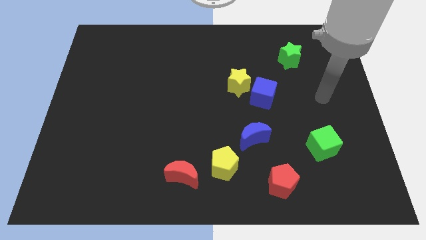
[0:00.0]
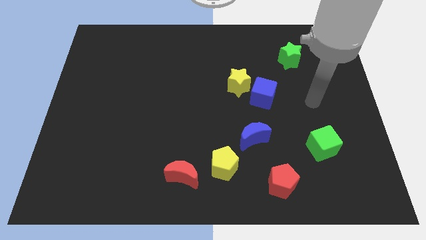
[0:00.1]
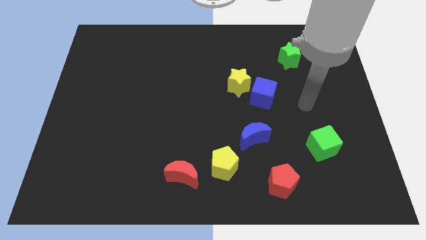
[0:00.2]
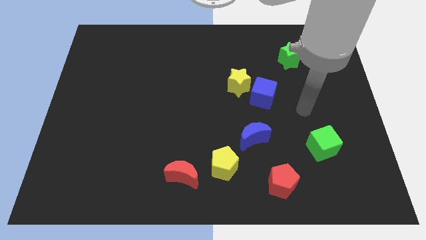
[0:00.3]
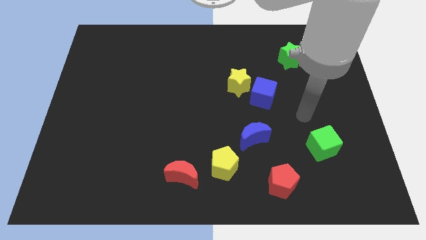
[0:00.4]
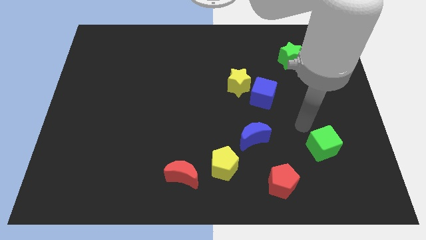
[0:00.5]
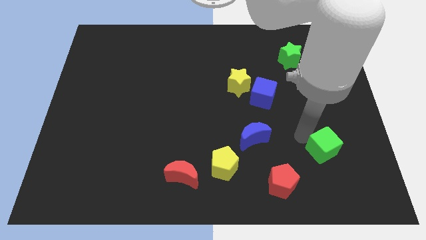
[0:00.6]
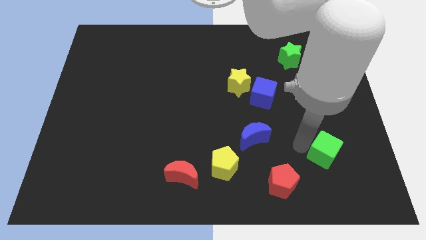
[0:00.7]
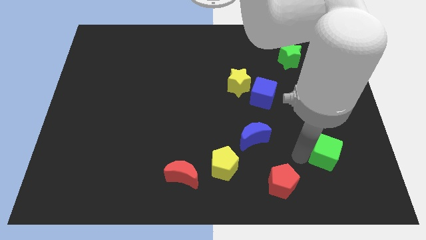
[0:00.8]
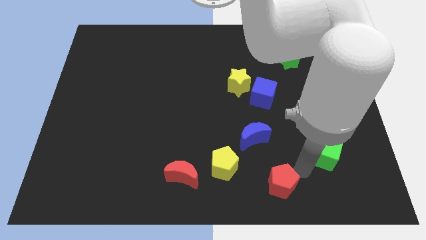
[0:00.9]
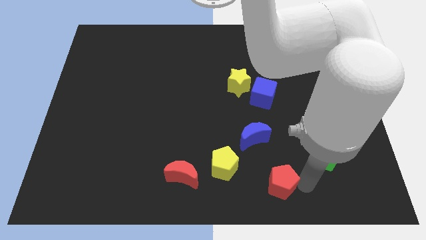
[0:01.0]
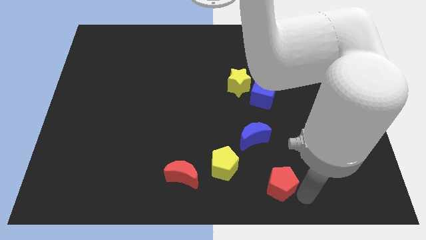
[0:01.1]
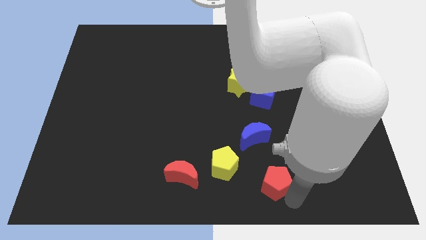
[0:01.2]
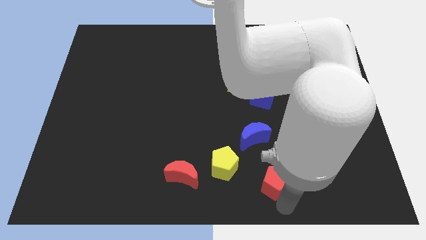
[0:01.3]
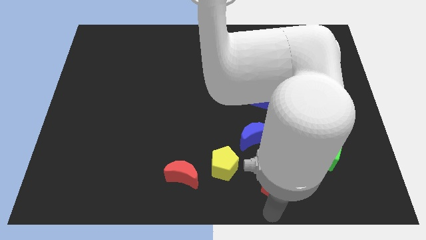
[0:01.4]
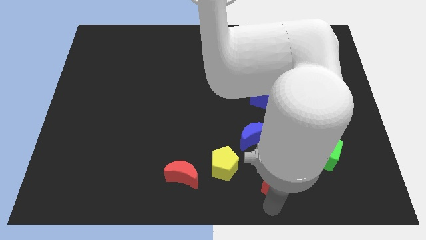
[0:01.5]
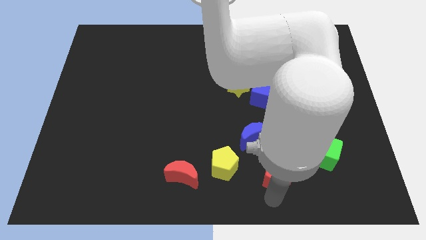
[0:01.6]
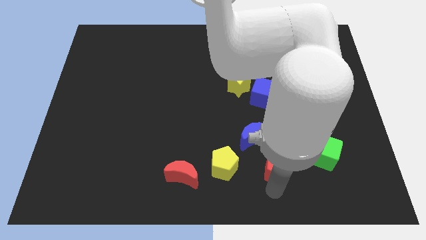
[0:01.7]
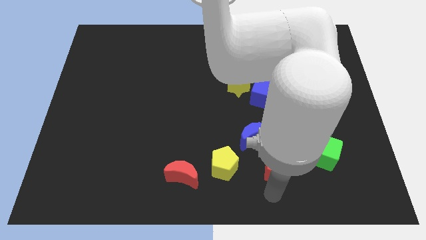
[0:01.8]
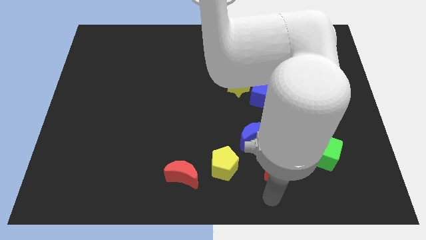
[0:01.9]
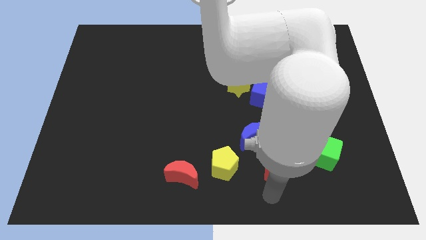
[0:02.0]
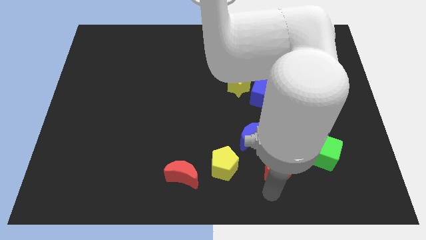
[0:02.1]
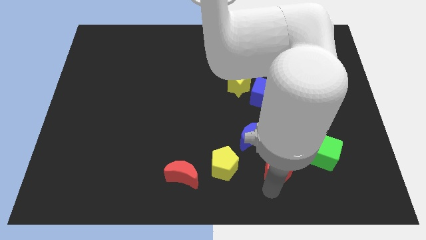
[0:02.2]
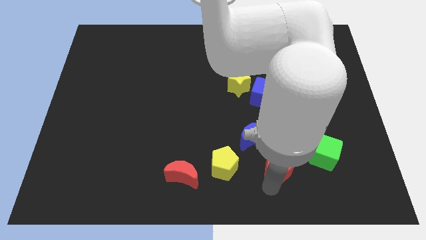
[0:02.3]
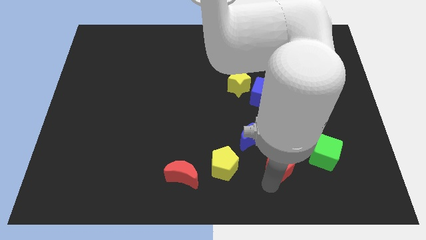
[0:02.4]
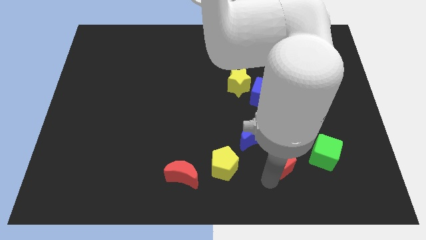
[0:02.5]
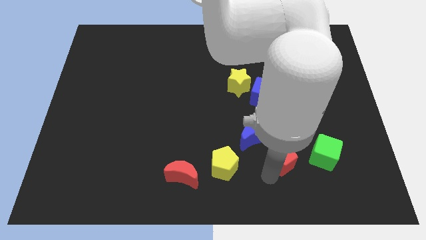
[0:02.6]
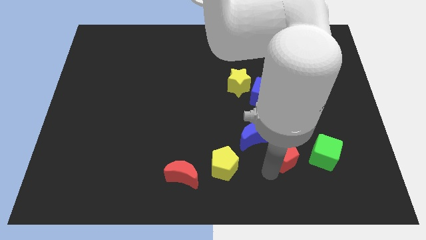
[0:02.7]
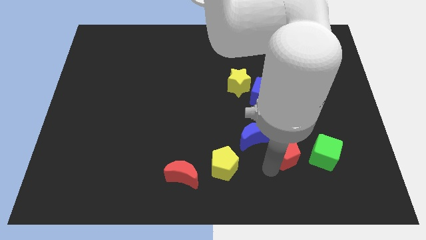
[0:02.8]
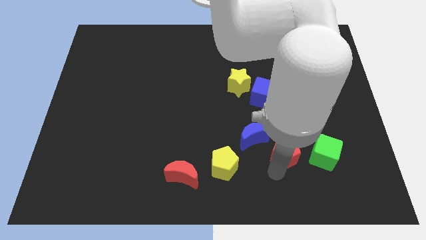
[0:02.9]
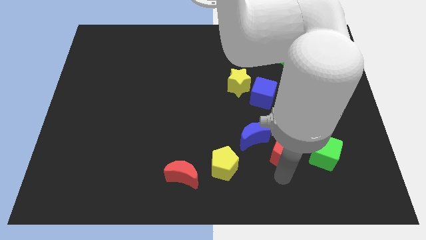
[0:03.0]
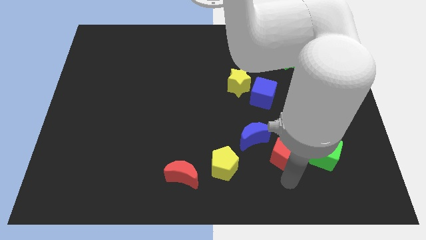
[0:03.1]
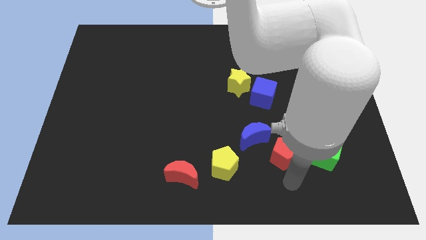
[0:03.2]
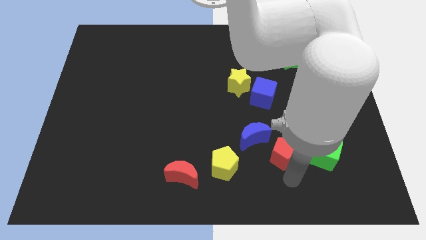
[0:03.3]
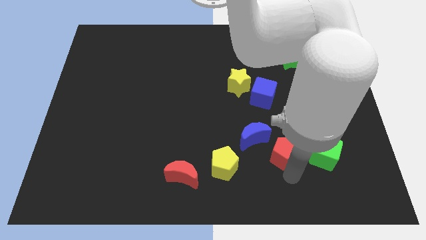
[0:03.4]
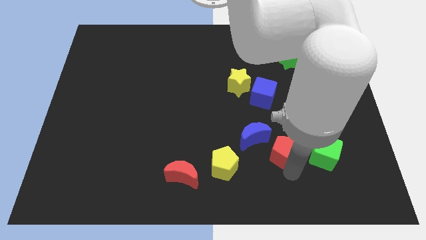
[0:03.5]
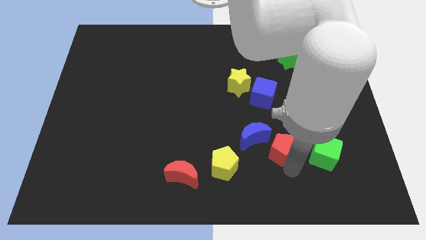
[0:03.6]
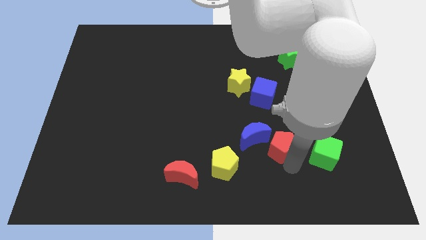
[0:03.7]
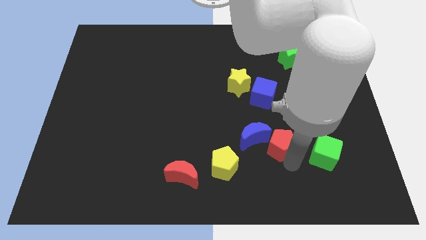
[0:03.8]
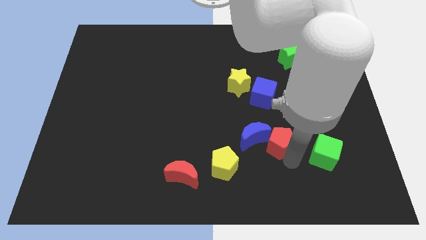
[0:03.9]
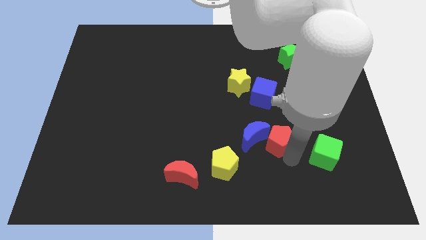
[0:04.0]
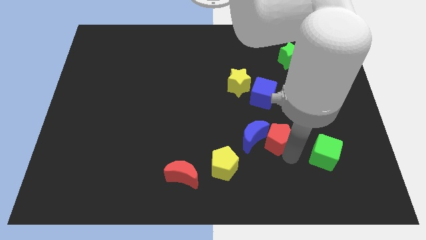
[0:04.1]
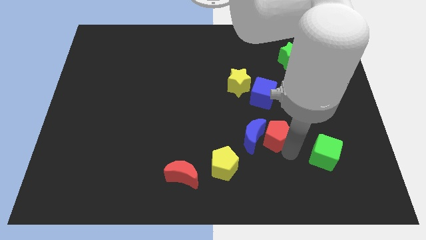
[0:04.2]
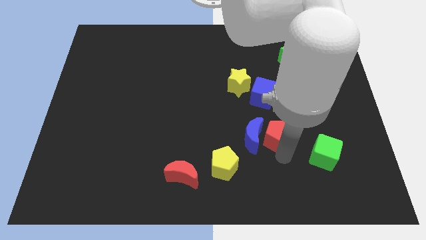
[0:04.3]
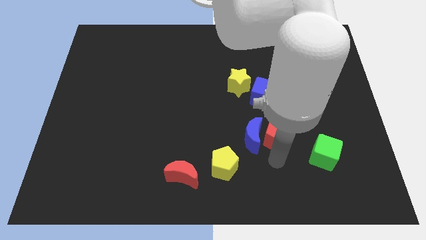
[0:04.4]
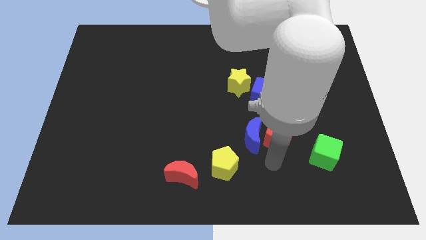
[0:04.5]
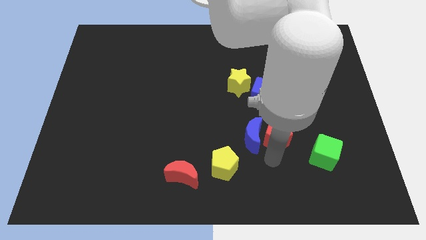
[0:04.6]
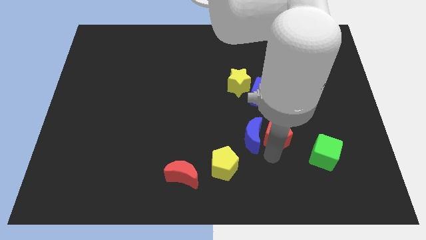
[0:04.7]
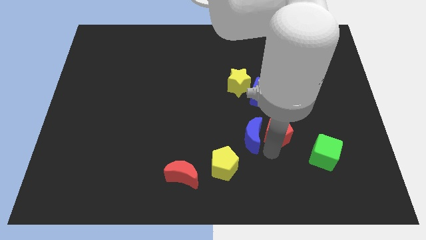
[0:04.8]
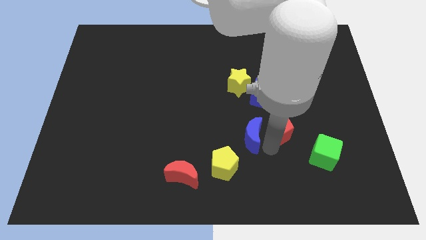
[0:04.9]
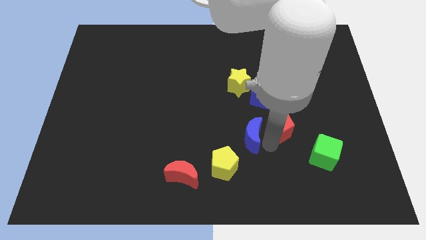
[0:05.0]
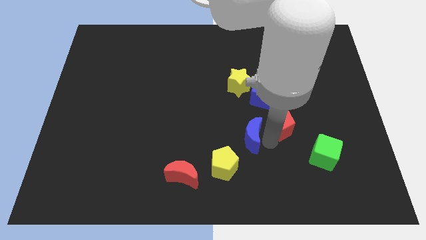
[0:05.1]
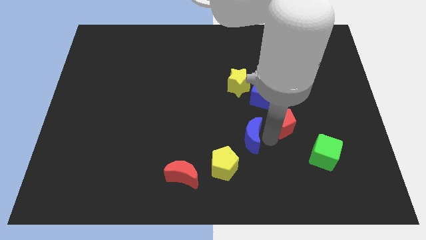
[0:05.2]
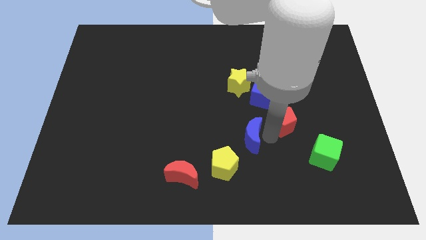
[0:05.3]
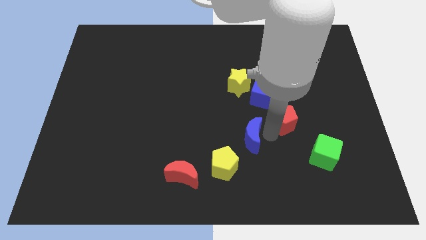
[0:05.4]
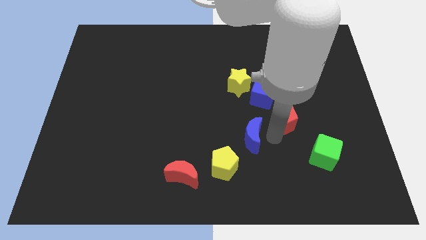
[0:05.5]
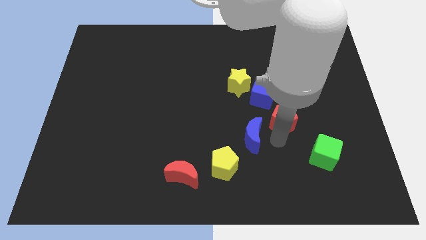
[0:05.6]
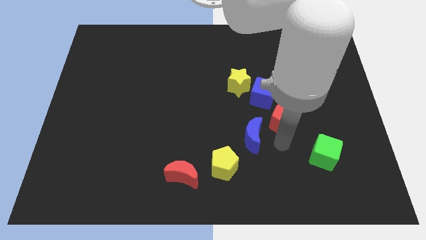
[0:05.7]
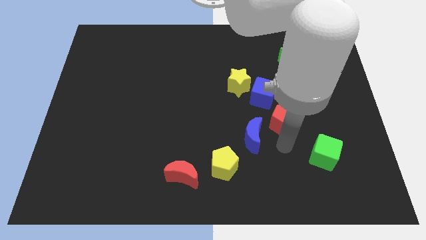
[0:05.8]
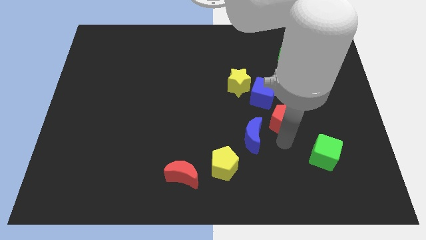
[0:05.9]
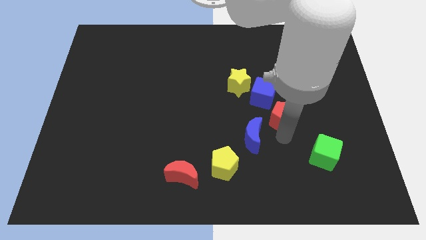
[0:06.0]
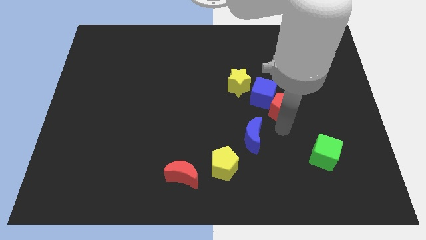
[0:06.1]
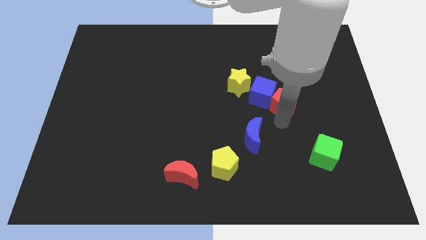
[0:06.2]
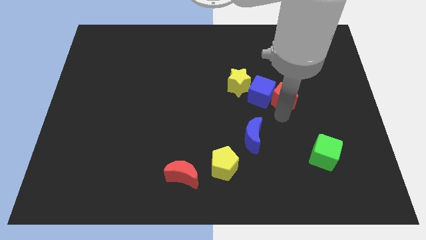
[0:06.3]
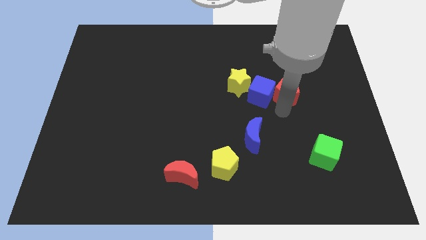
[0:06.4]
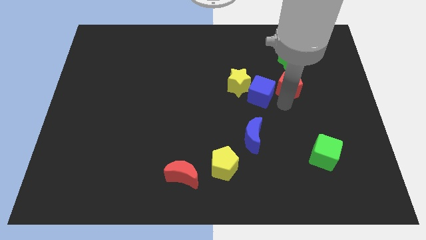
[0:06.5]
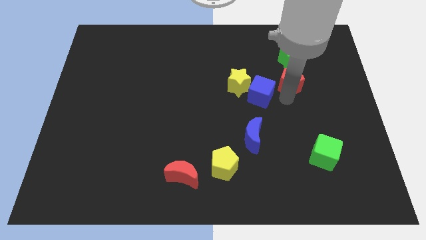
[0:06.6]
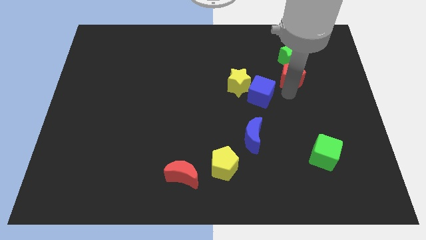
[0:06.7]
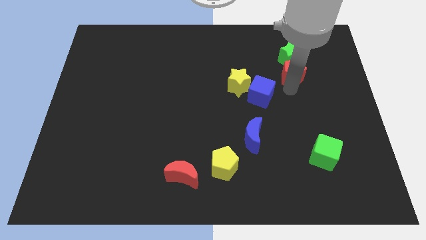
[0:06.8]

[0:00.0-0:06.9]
put the red pentagon next to the green star

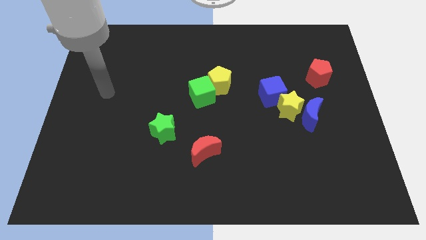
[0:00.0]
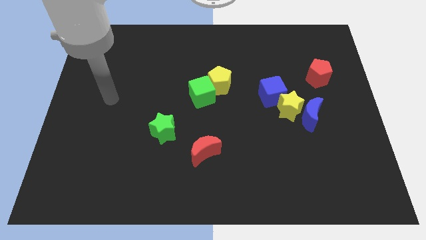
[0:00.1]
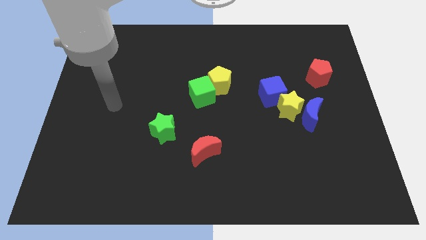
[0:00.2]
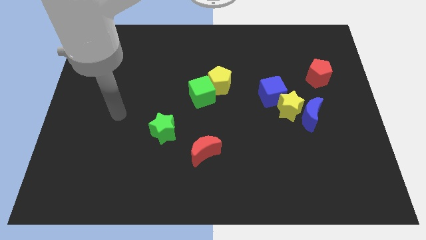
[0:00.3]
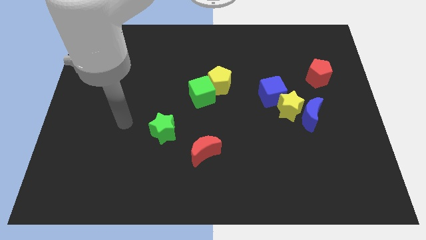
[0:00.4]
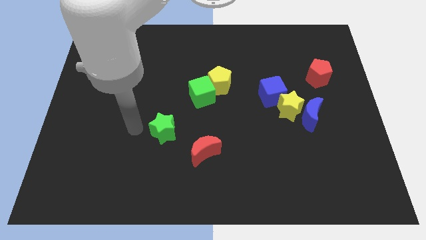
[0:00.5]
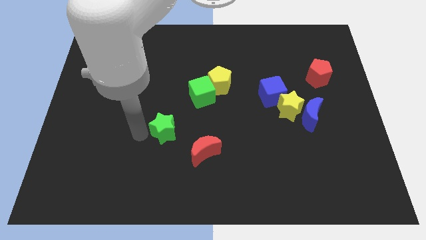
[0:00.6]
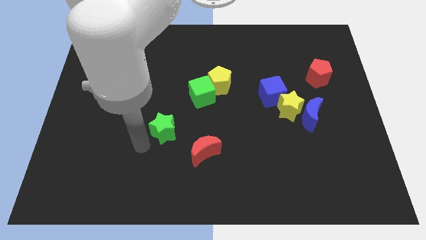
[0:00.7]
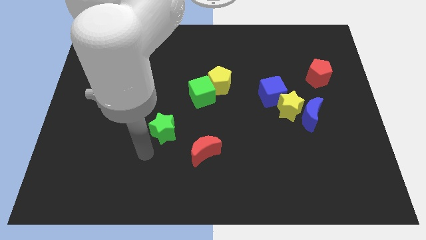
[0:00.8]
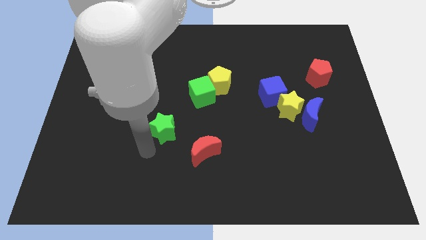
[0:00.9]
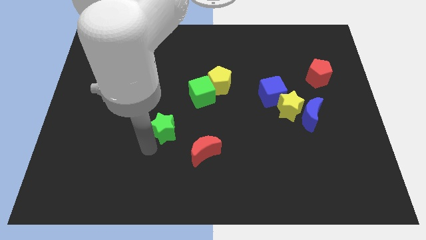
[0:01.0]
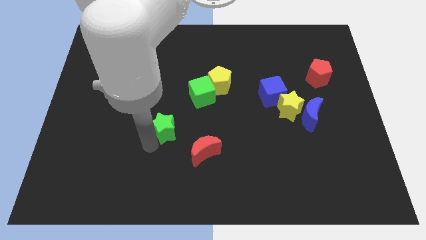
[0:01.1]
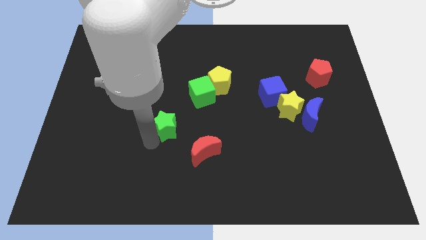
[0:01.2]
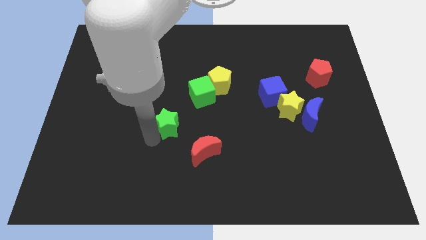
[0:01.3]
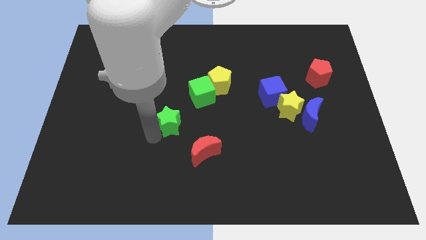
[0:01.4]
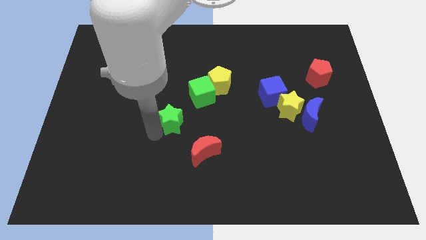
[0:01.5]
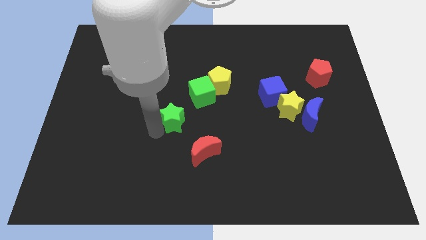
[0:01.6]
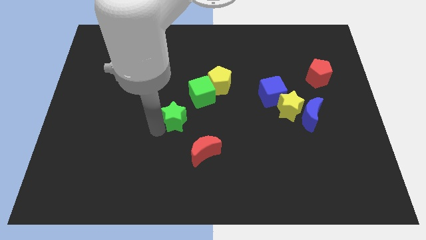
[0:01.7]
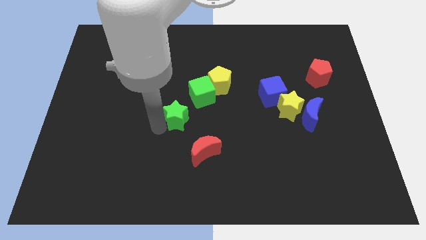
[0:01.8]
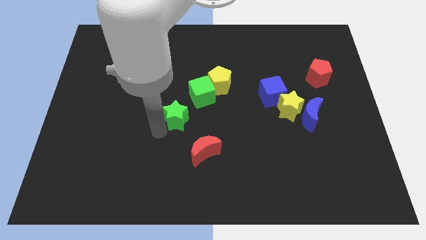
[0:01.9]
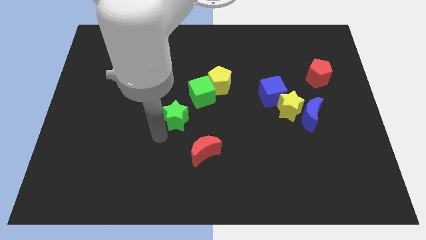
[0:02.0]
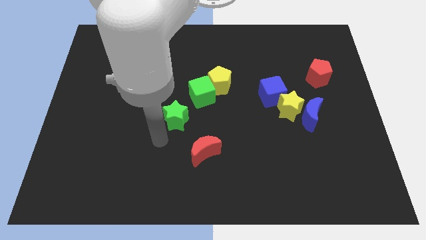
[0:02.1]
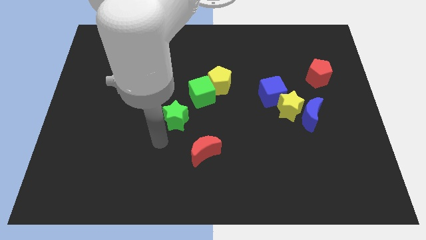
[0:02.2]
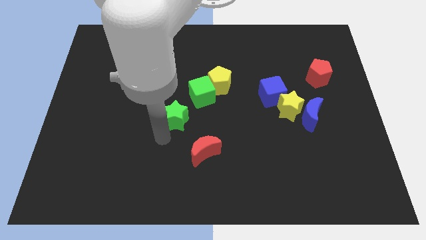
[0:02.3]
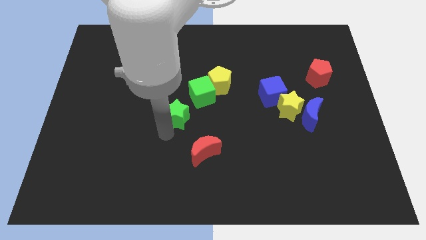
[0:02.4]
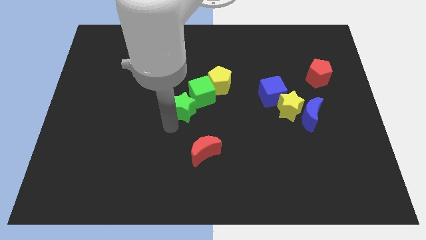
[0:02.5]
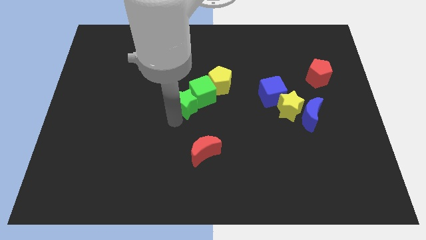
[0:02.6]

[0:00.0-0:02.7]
put the green star close to the green cube
